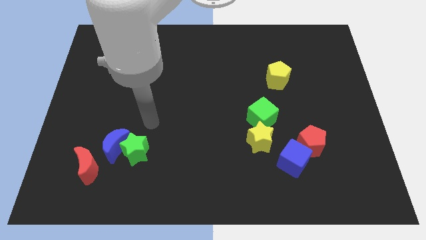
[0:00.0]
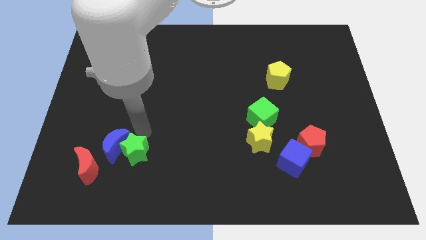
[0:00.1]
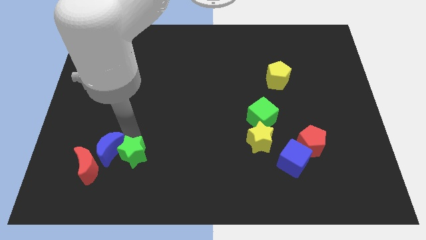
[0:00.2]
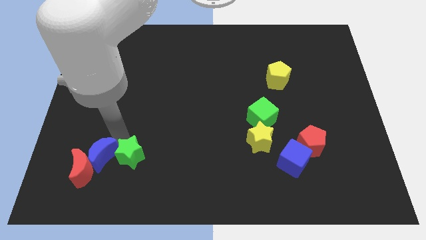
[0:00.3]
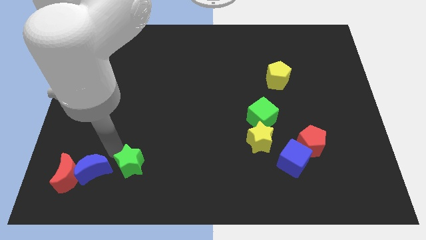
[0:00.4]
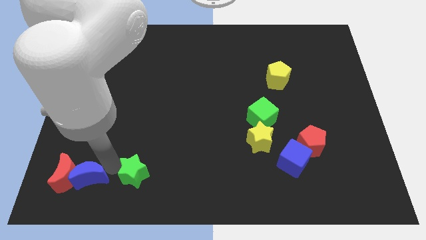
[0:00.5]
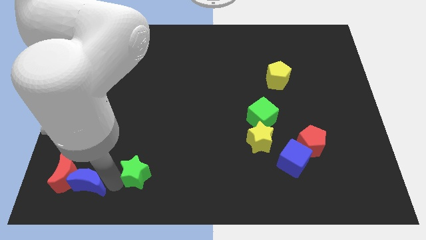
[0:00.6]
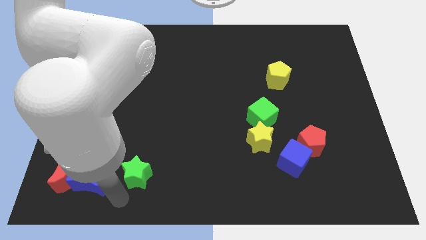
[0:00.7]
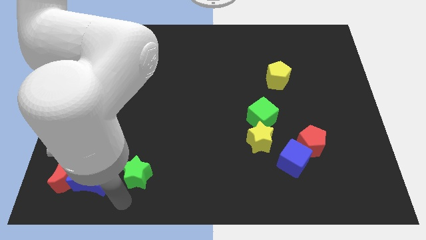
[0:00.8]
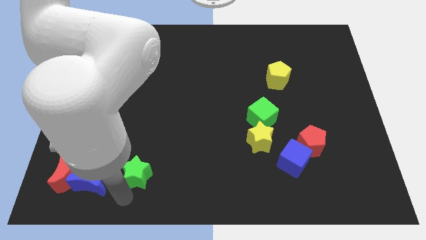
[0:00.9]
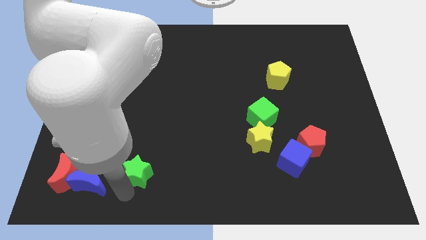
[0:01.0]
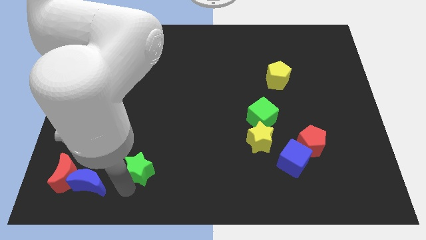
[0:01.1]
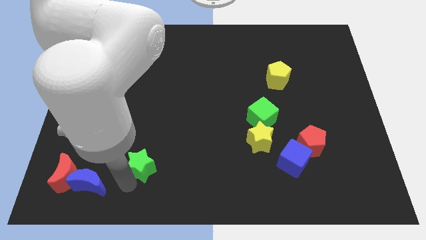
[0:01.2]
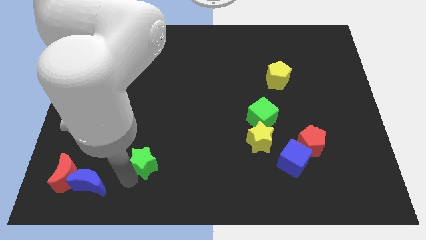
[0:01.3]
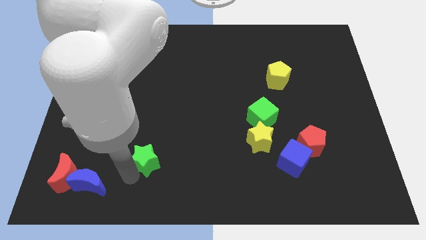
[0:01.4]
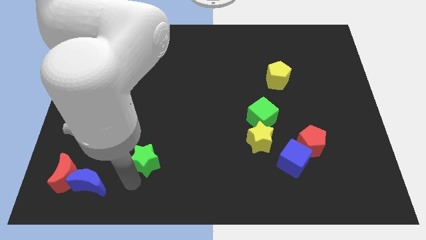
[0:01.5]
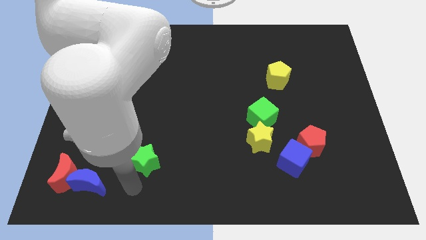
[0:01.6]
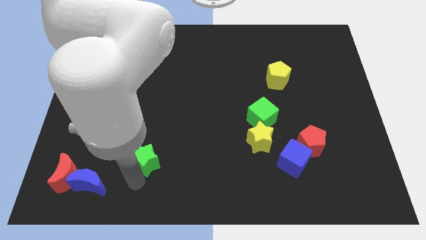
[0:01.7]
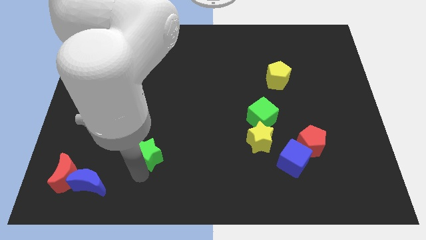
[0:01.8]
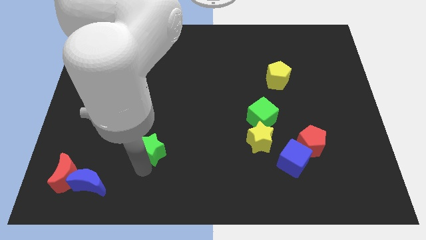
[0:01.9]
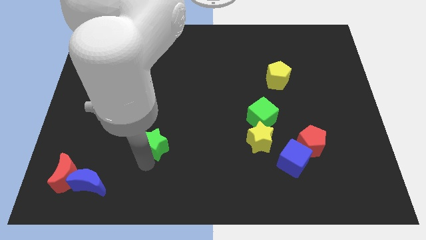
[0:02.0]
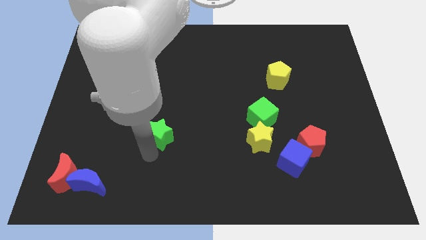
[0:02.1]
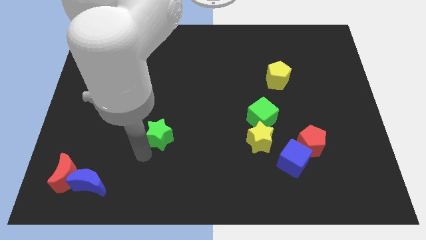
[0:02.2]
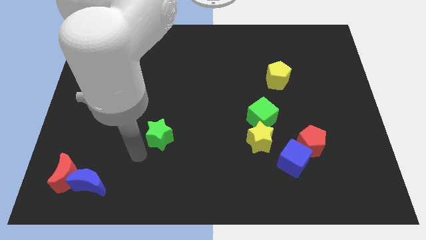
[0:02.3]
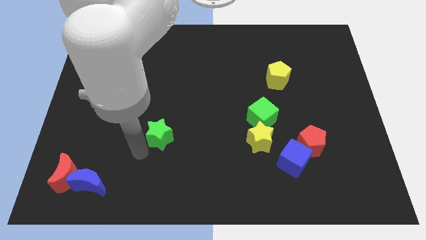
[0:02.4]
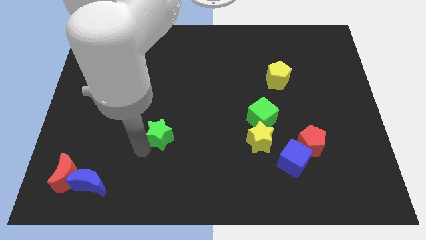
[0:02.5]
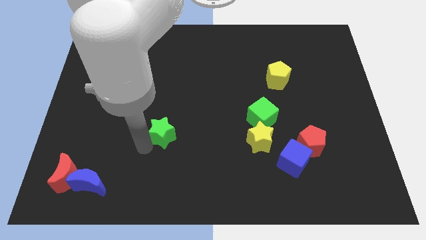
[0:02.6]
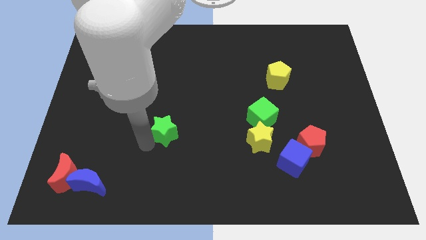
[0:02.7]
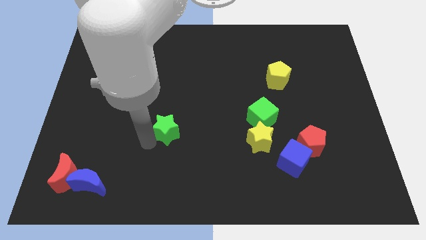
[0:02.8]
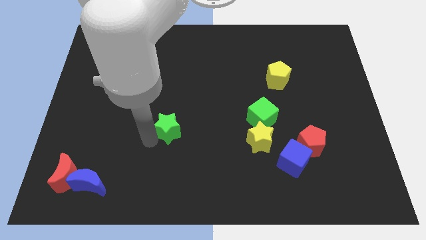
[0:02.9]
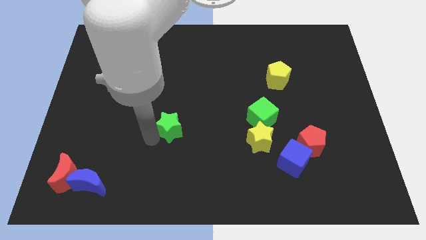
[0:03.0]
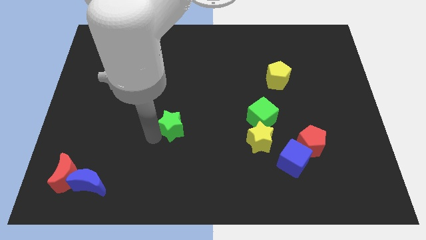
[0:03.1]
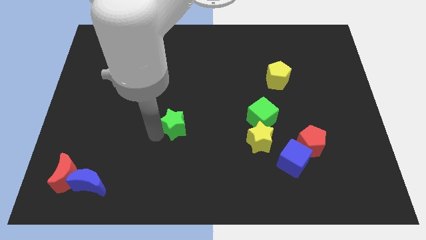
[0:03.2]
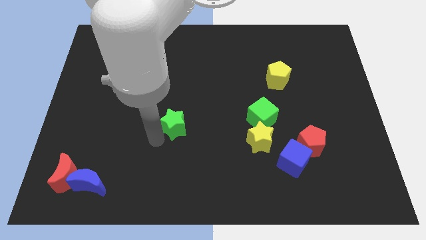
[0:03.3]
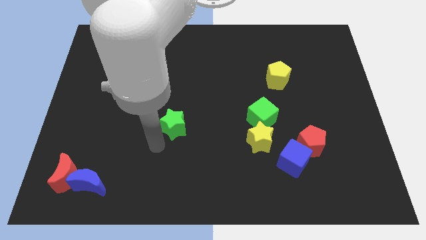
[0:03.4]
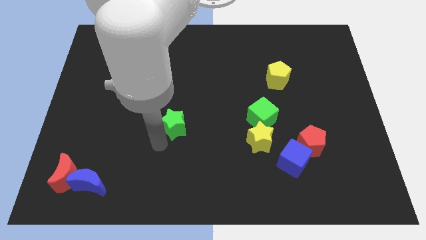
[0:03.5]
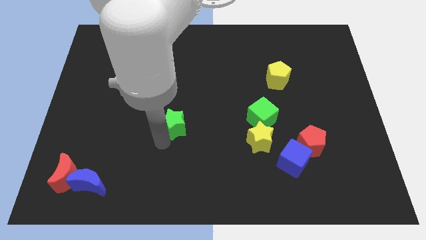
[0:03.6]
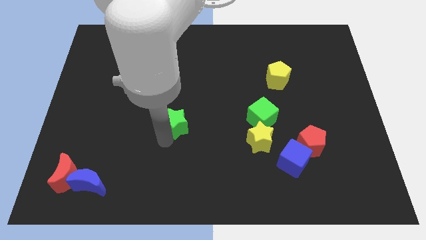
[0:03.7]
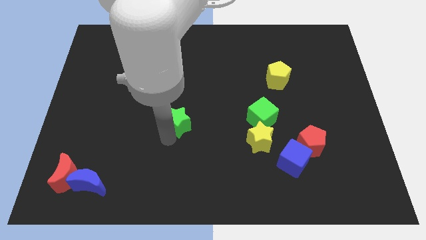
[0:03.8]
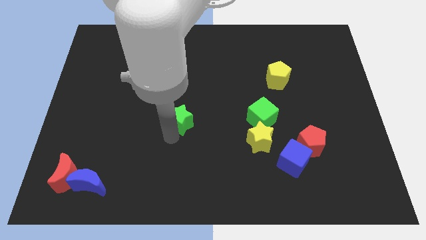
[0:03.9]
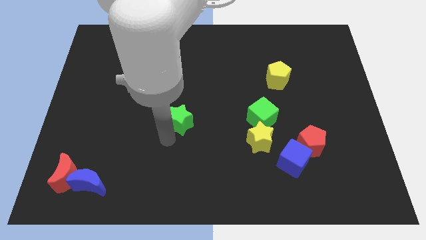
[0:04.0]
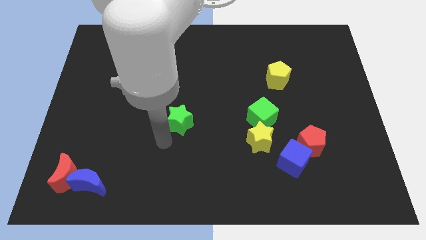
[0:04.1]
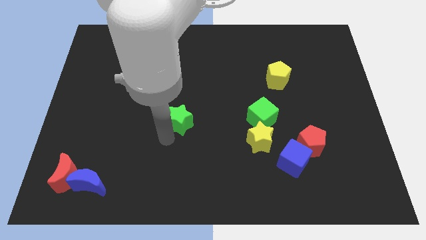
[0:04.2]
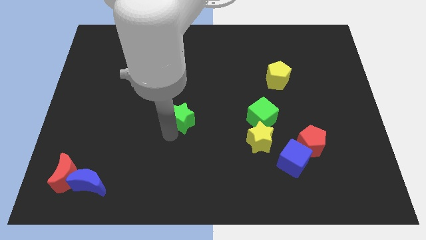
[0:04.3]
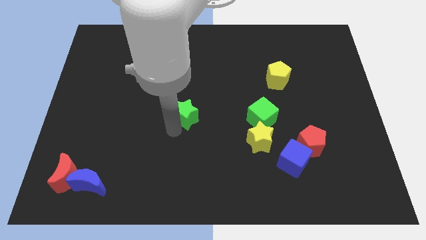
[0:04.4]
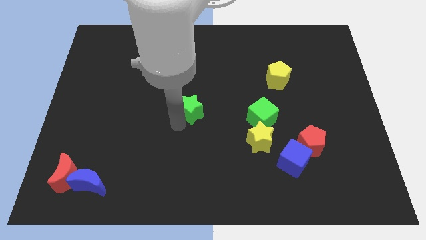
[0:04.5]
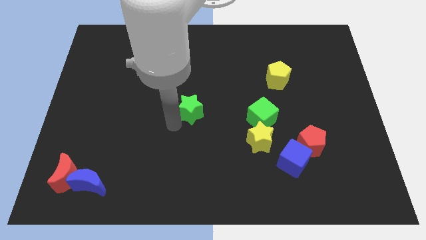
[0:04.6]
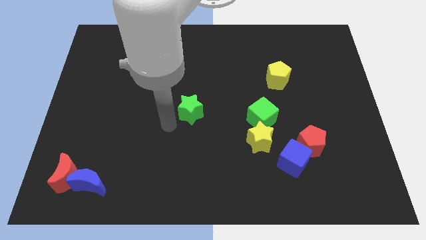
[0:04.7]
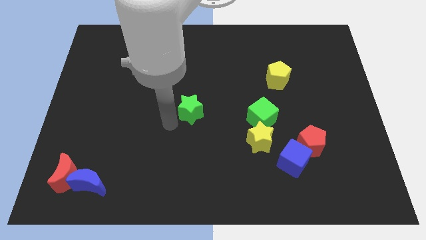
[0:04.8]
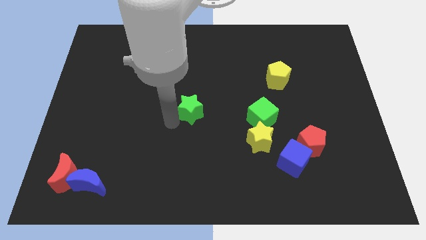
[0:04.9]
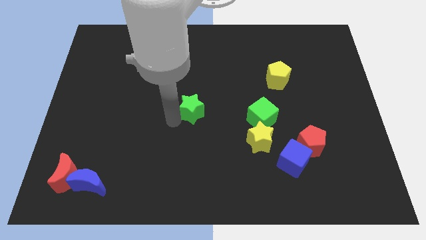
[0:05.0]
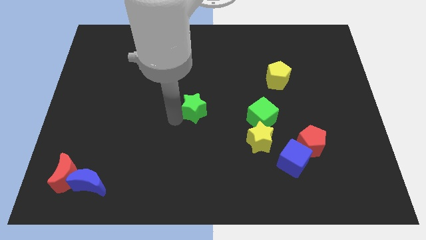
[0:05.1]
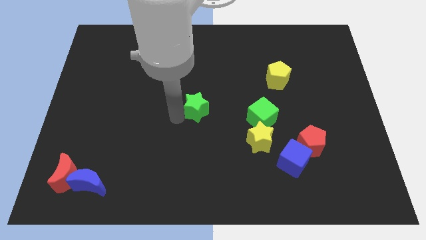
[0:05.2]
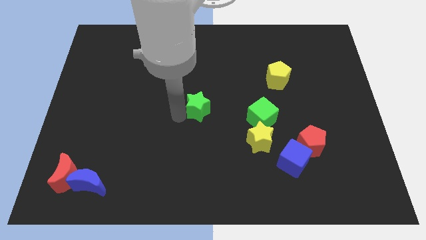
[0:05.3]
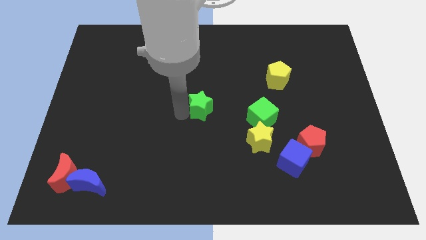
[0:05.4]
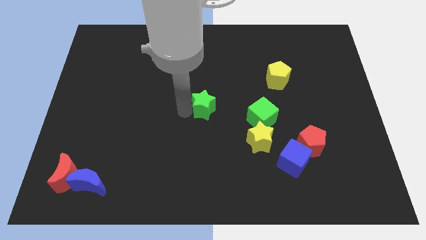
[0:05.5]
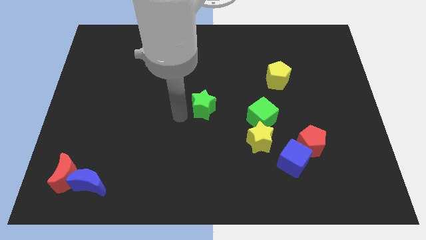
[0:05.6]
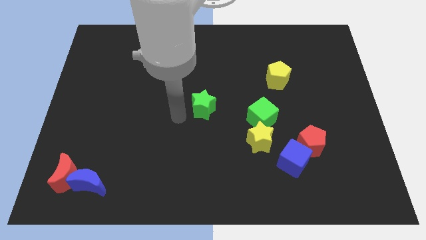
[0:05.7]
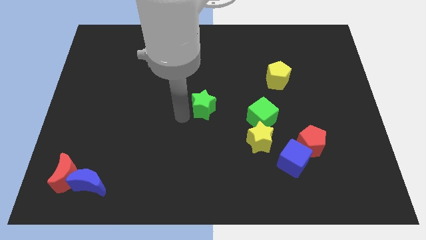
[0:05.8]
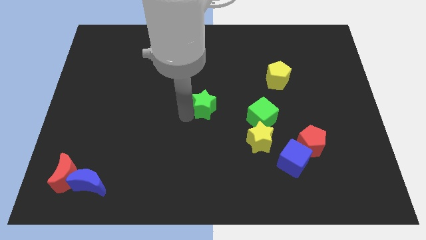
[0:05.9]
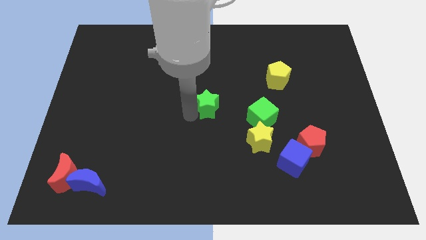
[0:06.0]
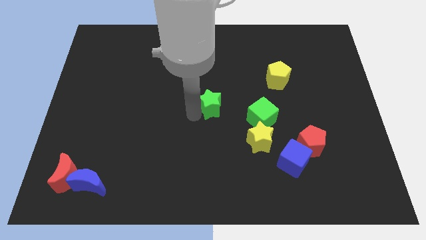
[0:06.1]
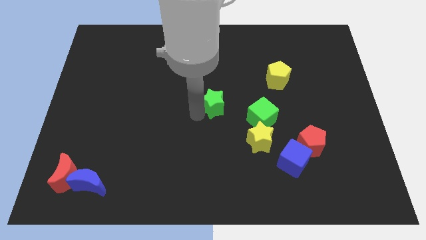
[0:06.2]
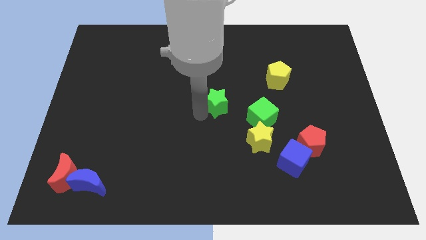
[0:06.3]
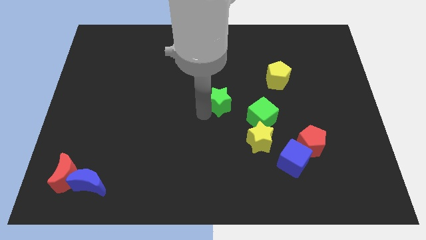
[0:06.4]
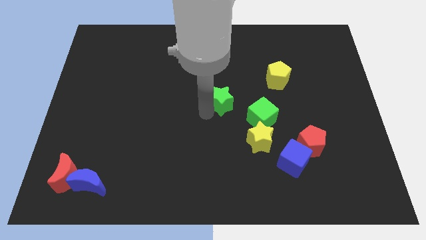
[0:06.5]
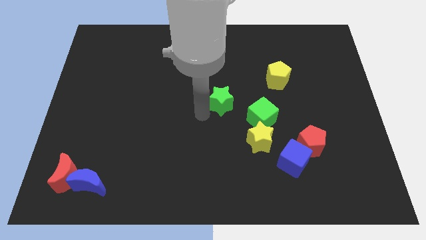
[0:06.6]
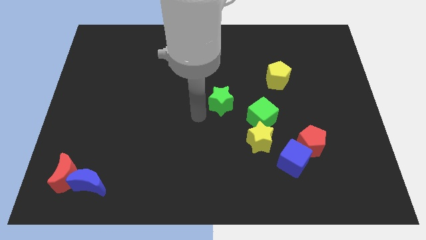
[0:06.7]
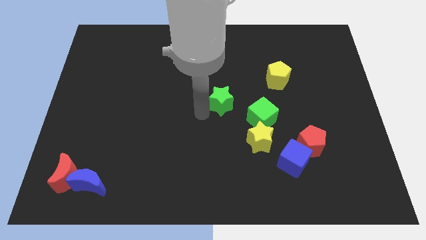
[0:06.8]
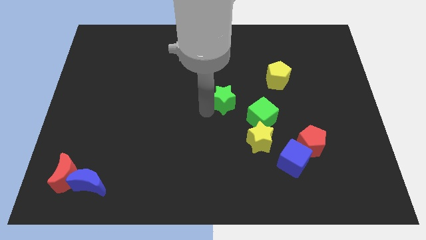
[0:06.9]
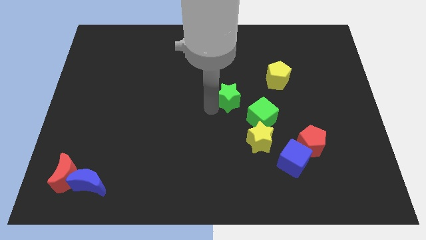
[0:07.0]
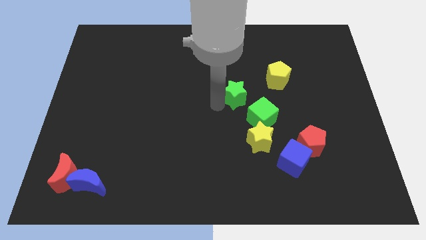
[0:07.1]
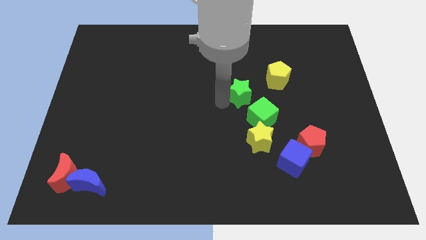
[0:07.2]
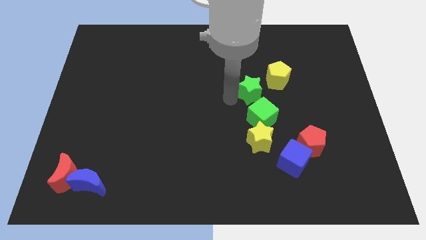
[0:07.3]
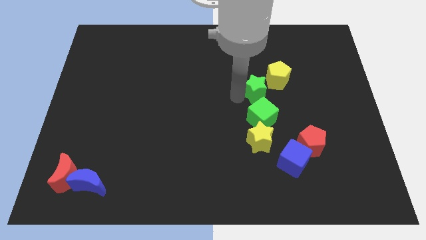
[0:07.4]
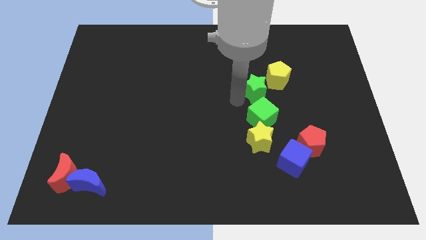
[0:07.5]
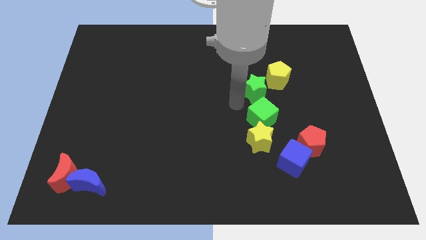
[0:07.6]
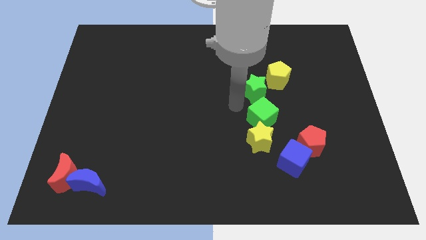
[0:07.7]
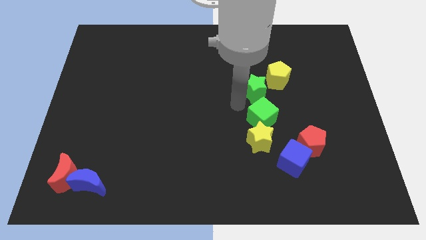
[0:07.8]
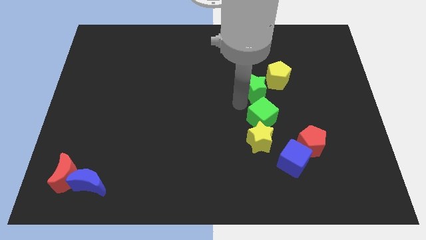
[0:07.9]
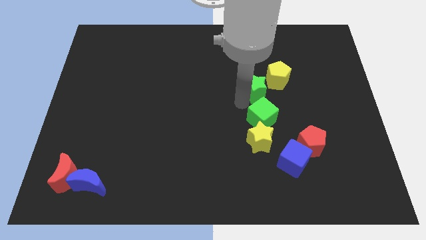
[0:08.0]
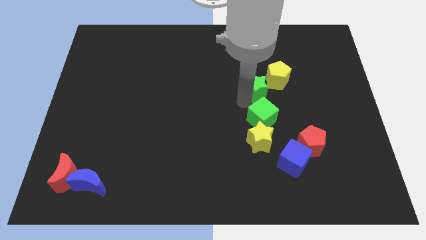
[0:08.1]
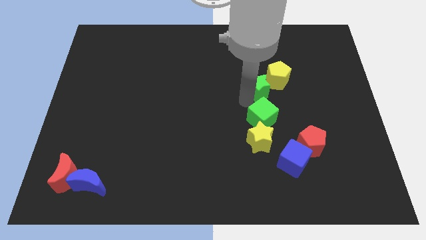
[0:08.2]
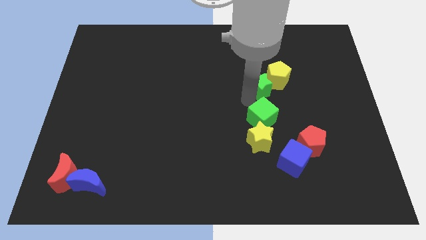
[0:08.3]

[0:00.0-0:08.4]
push the green star towards the yellow pentagon
